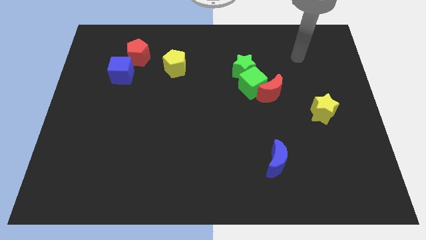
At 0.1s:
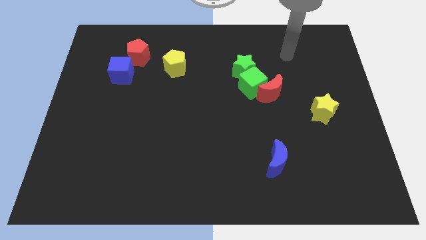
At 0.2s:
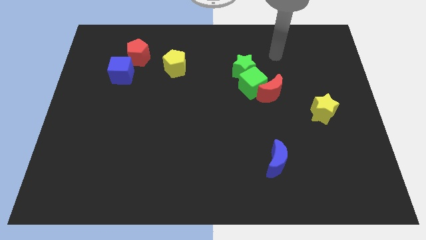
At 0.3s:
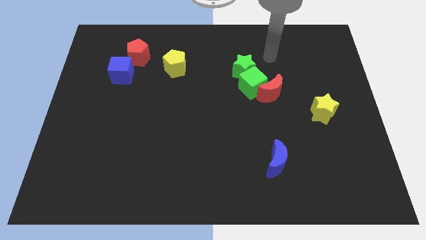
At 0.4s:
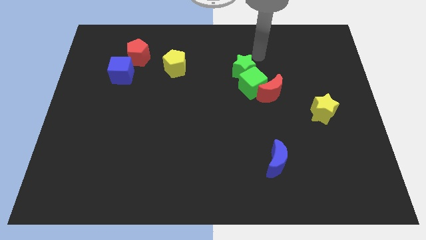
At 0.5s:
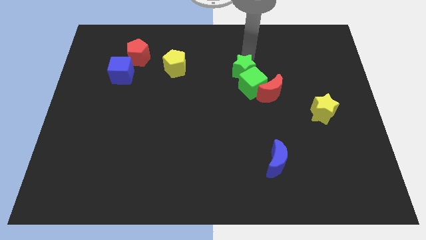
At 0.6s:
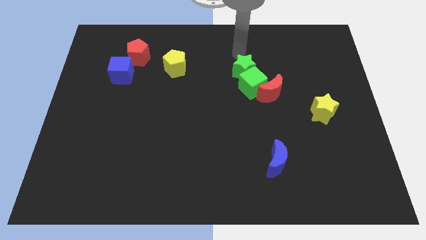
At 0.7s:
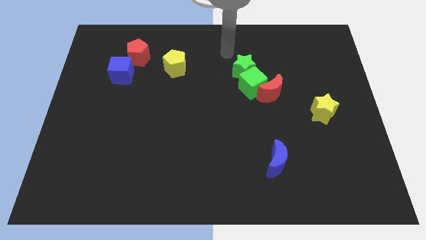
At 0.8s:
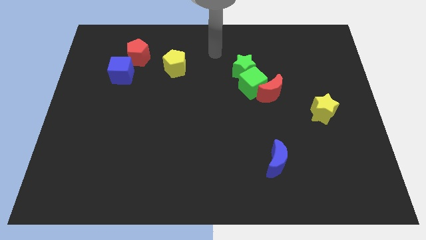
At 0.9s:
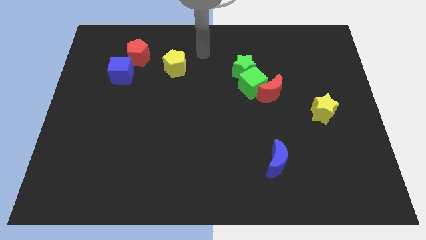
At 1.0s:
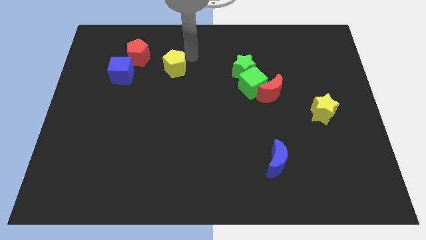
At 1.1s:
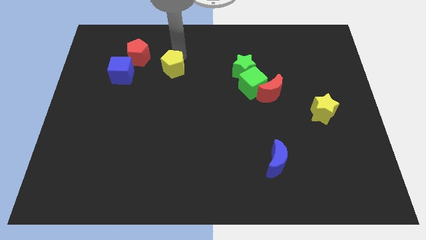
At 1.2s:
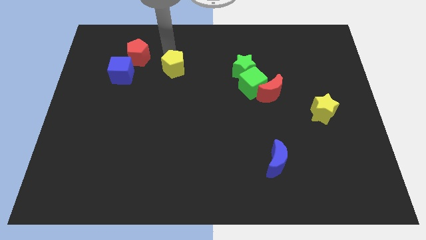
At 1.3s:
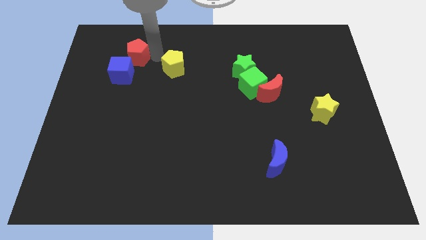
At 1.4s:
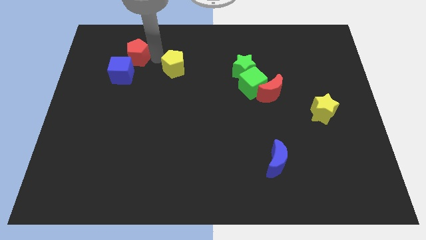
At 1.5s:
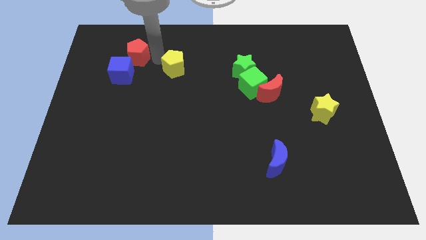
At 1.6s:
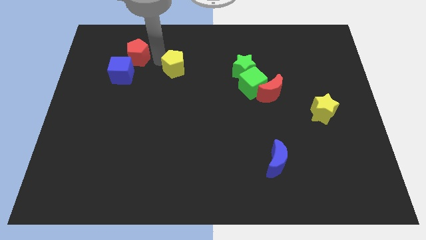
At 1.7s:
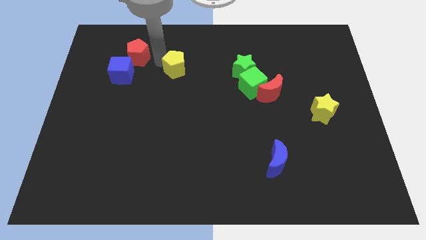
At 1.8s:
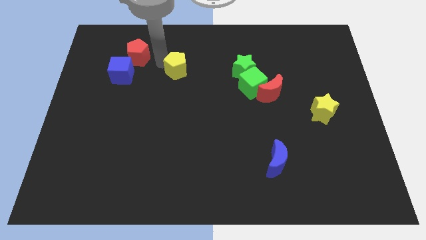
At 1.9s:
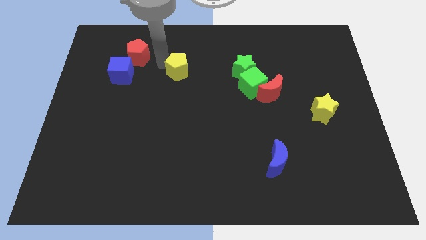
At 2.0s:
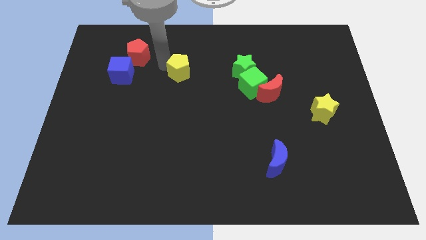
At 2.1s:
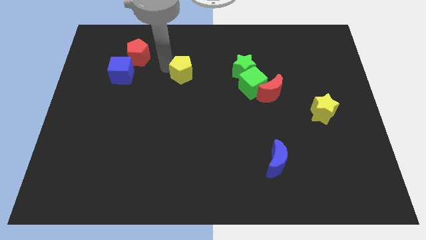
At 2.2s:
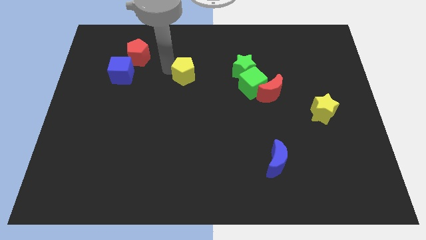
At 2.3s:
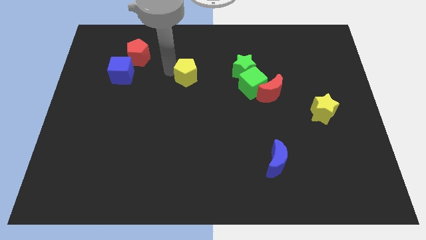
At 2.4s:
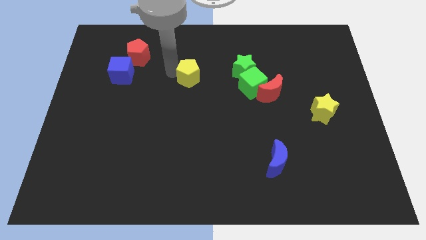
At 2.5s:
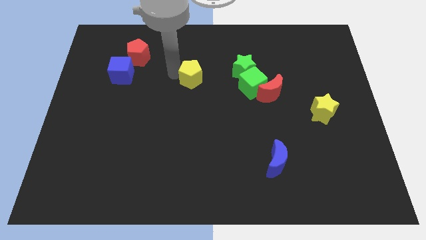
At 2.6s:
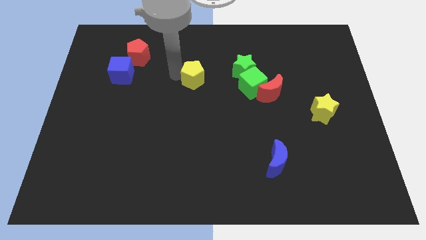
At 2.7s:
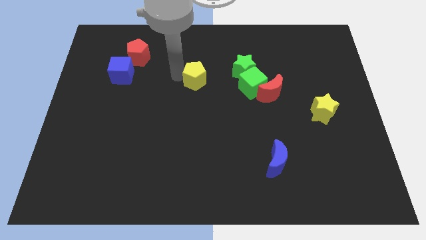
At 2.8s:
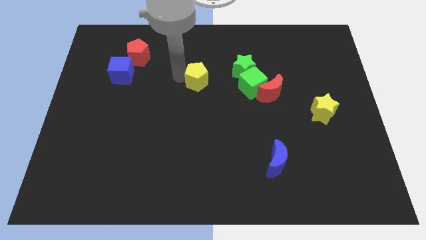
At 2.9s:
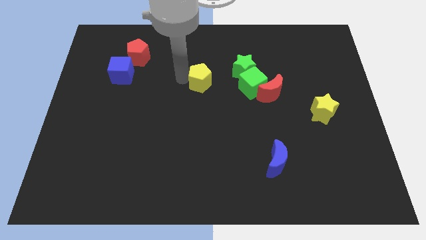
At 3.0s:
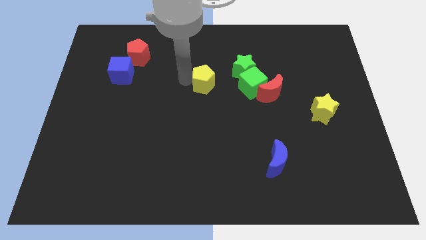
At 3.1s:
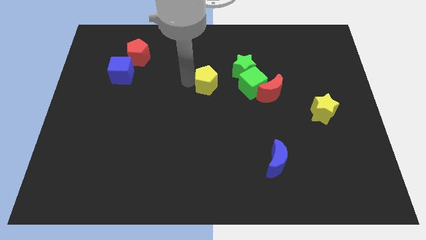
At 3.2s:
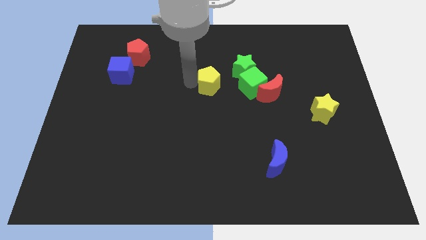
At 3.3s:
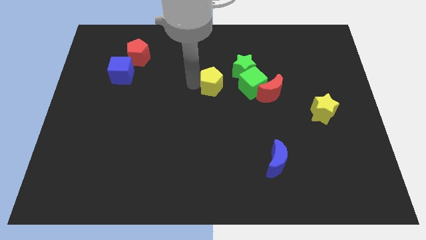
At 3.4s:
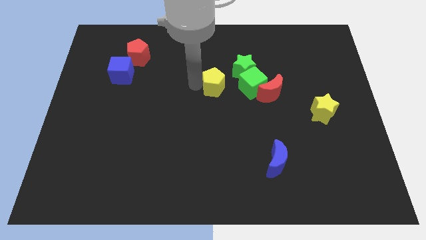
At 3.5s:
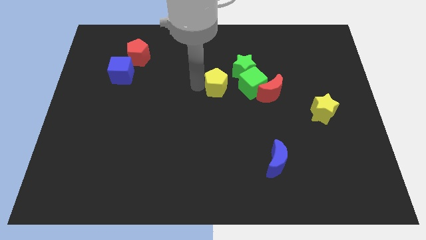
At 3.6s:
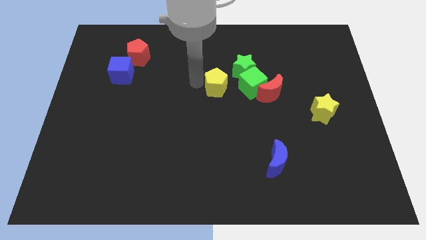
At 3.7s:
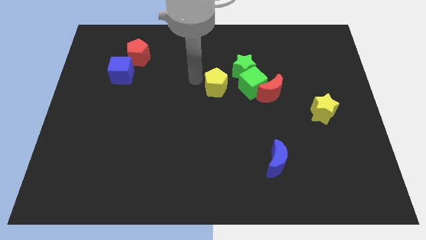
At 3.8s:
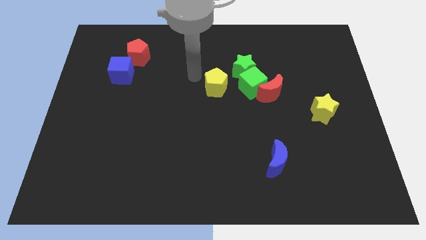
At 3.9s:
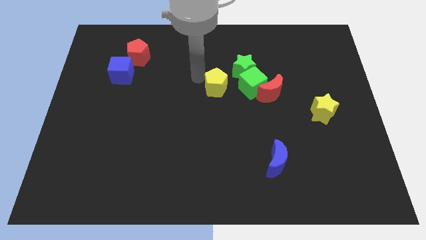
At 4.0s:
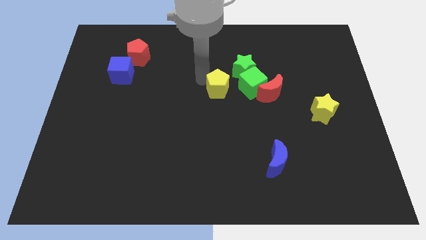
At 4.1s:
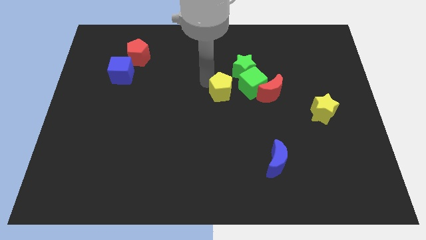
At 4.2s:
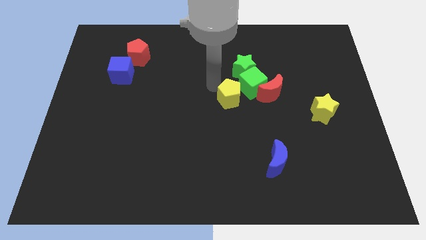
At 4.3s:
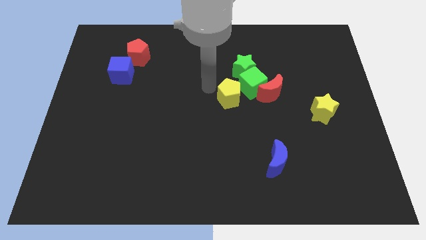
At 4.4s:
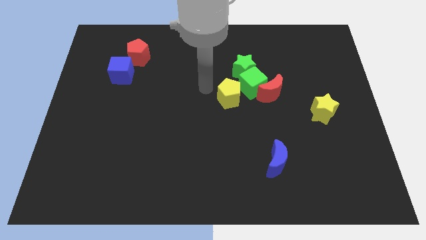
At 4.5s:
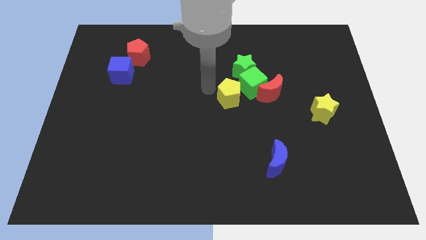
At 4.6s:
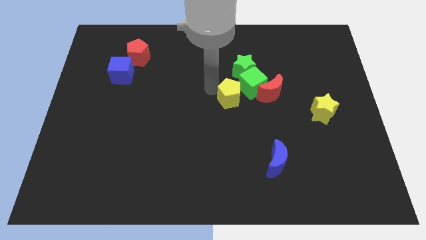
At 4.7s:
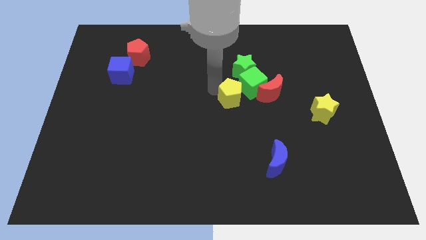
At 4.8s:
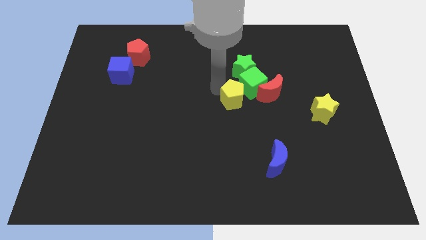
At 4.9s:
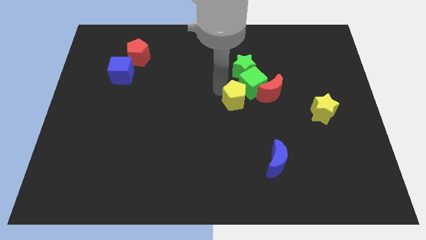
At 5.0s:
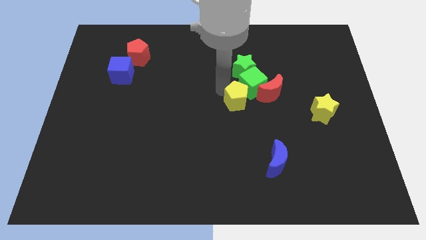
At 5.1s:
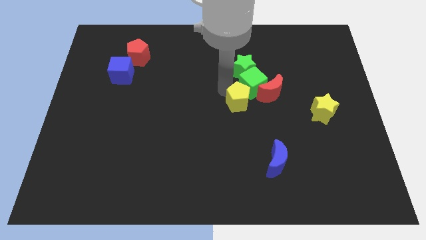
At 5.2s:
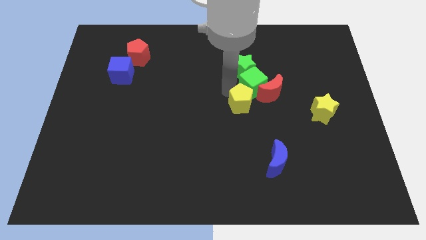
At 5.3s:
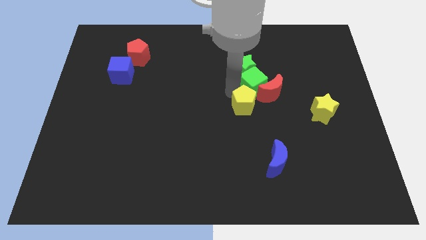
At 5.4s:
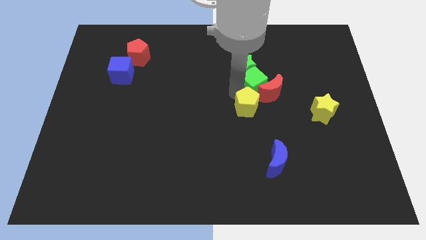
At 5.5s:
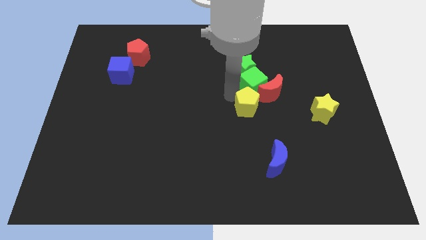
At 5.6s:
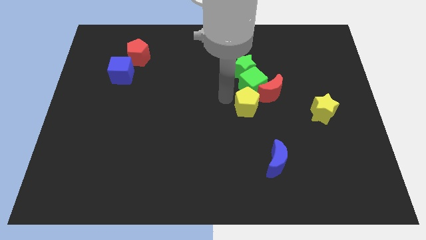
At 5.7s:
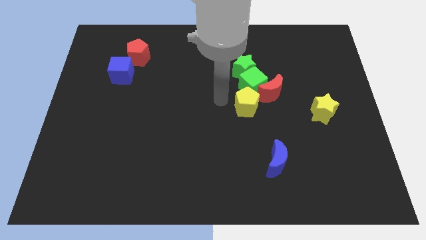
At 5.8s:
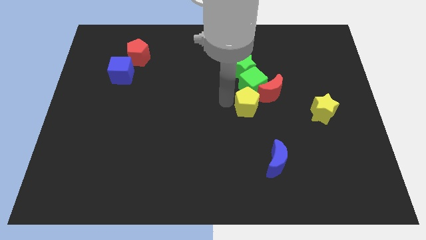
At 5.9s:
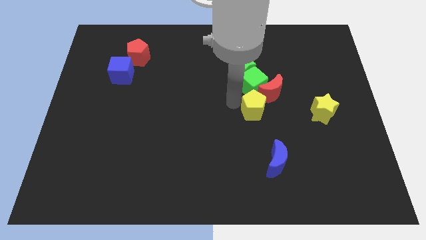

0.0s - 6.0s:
put the yellow pentagon to the left side of the yellow star

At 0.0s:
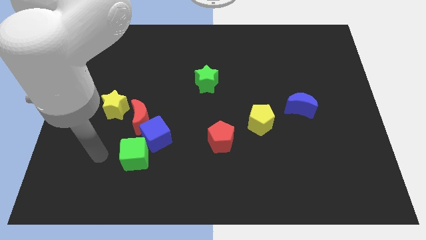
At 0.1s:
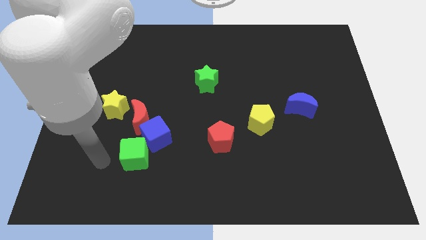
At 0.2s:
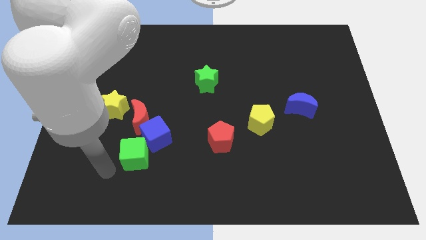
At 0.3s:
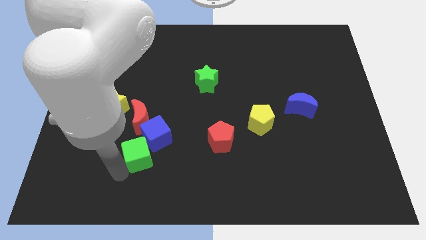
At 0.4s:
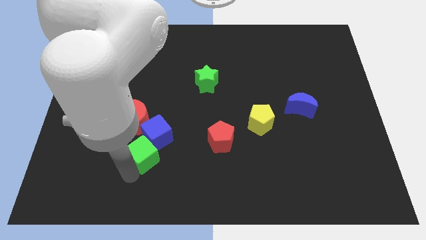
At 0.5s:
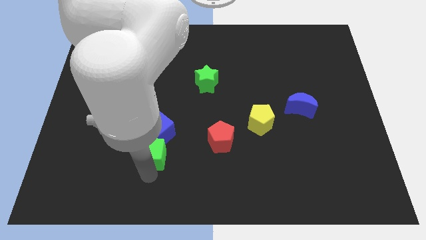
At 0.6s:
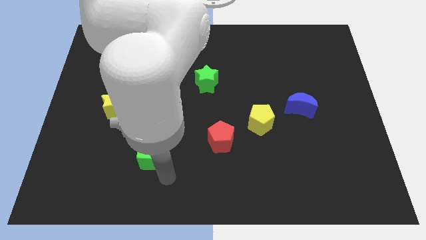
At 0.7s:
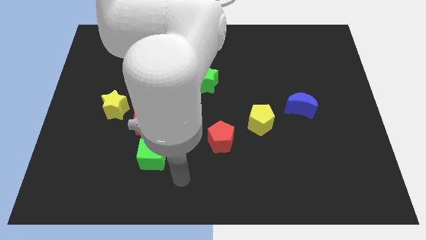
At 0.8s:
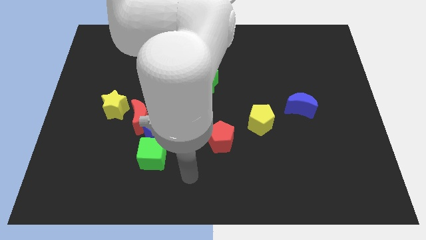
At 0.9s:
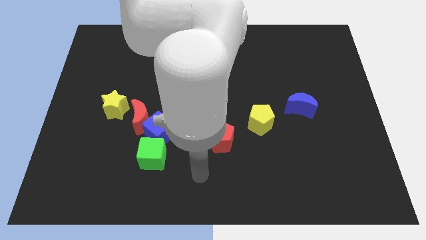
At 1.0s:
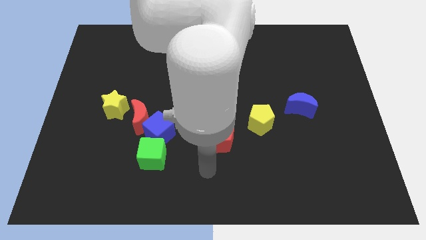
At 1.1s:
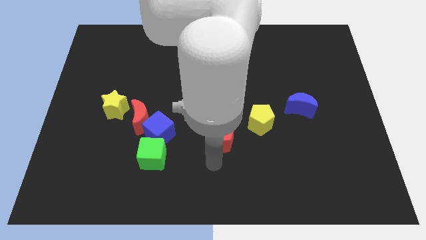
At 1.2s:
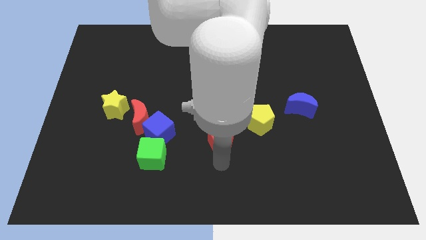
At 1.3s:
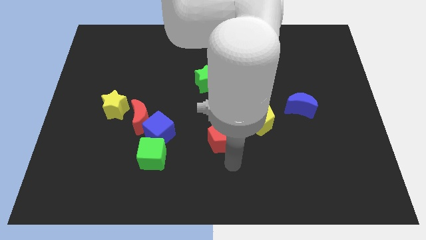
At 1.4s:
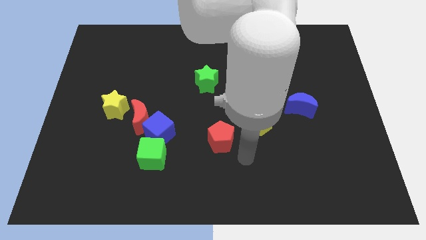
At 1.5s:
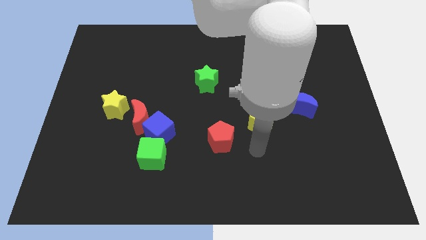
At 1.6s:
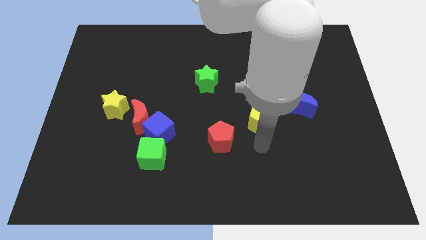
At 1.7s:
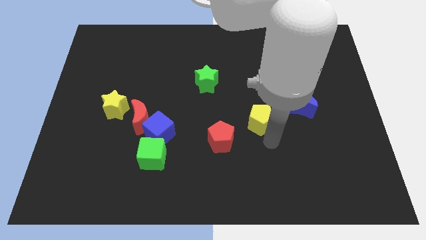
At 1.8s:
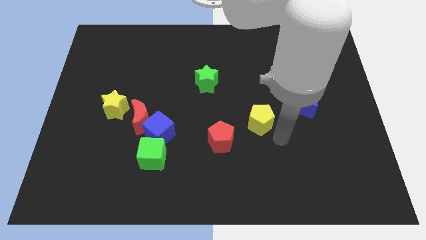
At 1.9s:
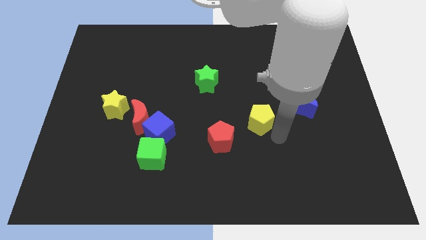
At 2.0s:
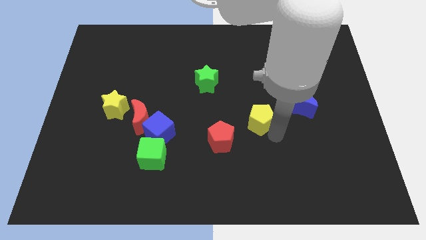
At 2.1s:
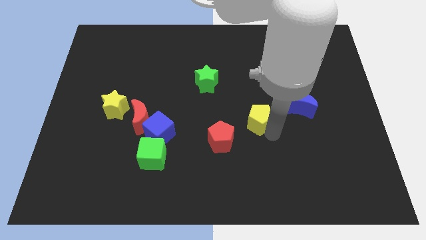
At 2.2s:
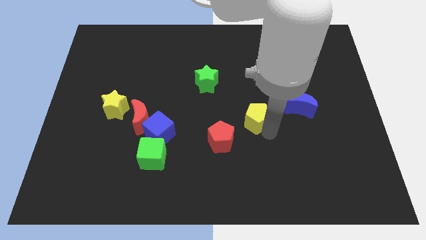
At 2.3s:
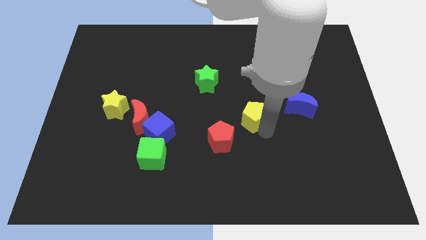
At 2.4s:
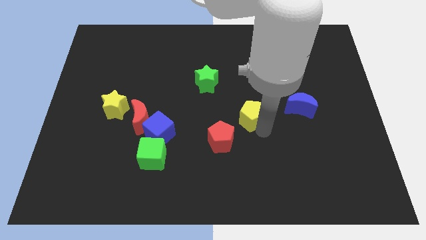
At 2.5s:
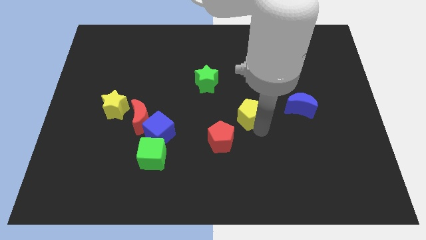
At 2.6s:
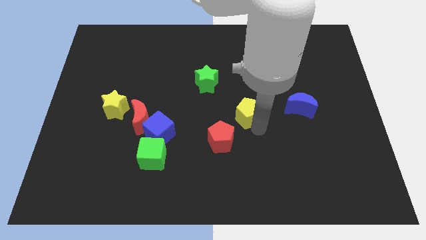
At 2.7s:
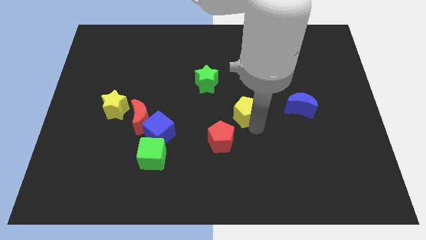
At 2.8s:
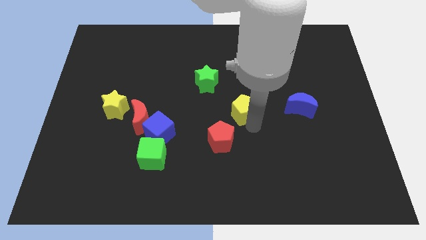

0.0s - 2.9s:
move the yellow pentagon to the bottom right side of the green star
